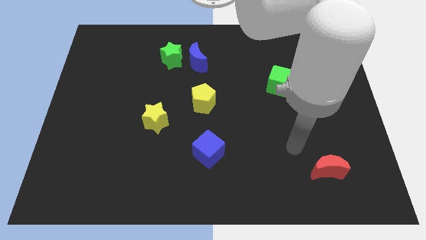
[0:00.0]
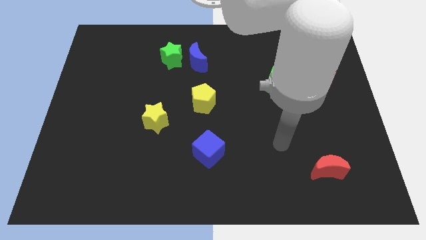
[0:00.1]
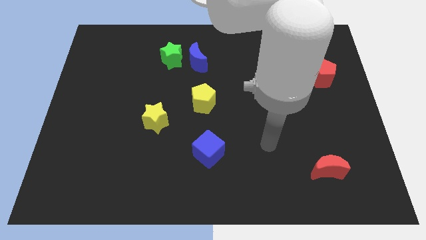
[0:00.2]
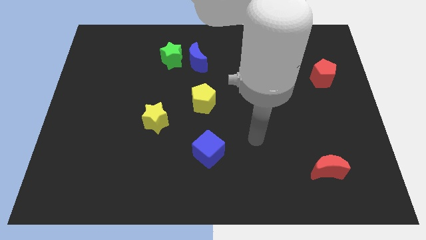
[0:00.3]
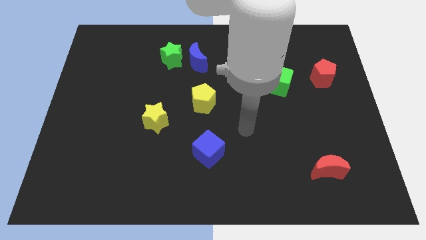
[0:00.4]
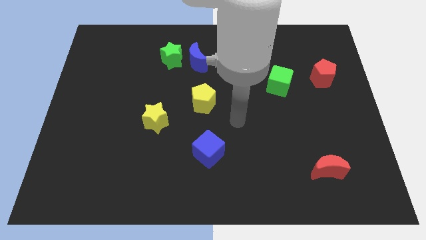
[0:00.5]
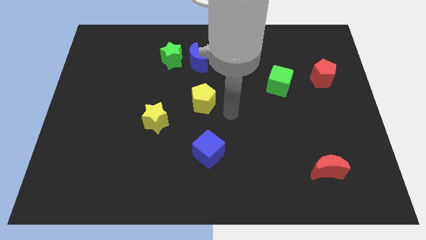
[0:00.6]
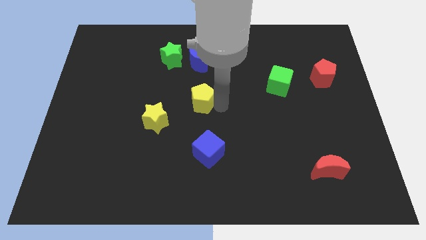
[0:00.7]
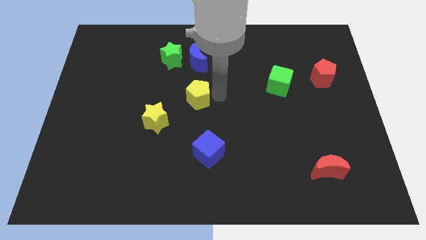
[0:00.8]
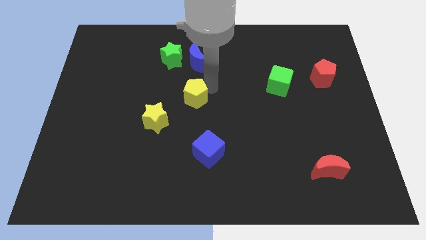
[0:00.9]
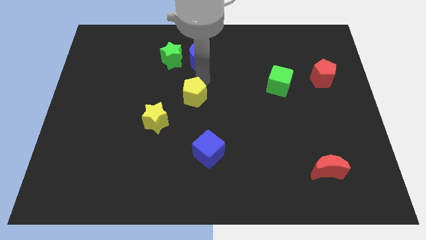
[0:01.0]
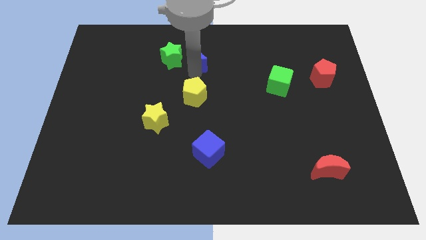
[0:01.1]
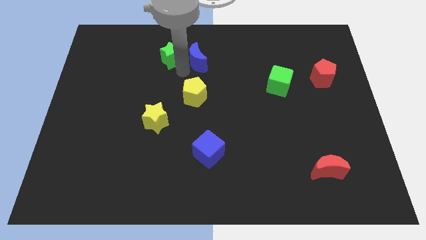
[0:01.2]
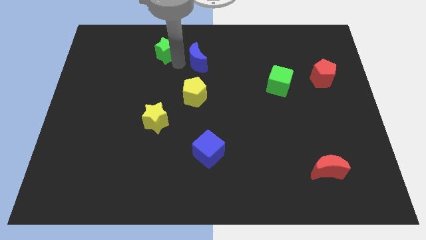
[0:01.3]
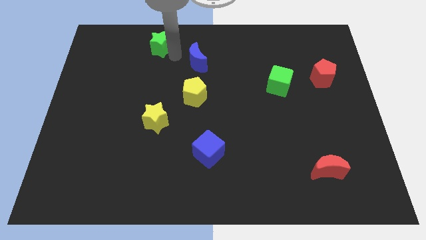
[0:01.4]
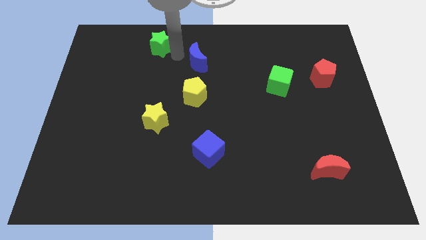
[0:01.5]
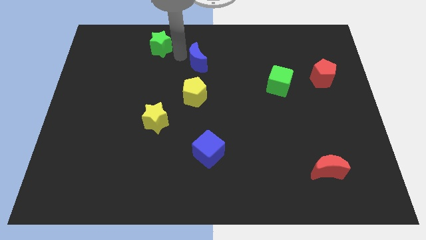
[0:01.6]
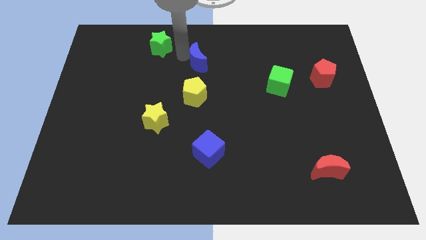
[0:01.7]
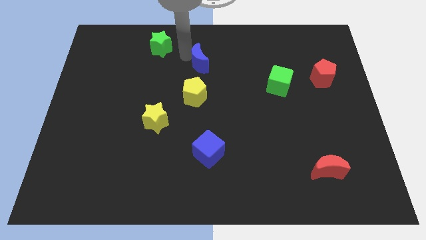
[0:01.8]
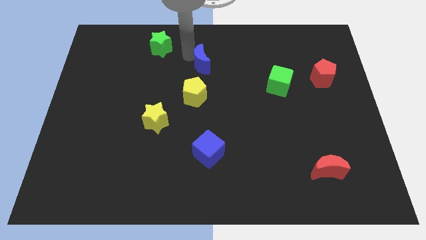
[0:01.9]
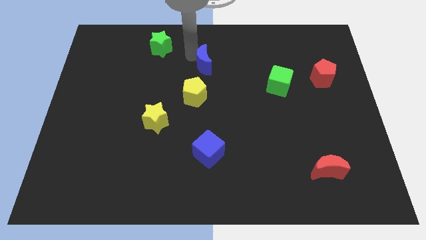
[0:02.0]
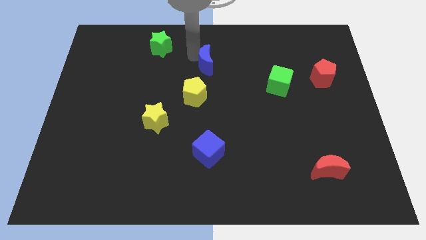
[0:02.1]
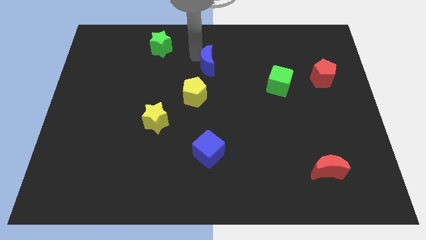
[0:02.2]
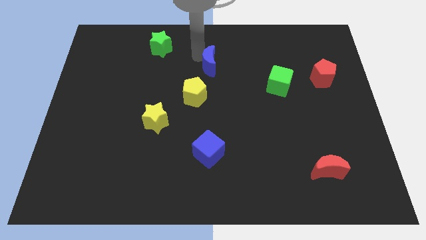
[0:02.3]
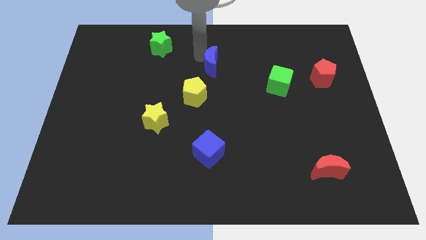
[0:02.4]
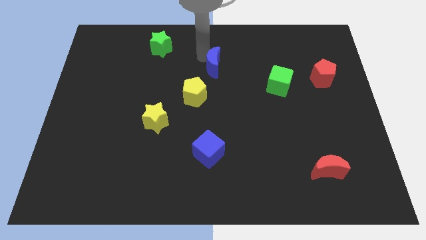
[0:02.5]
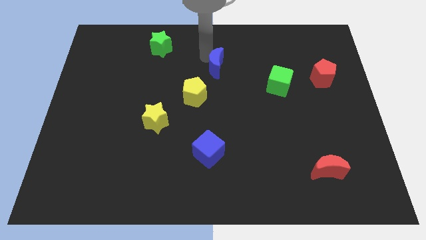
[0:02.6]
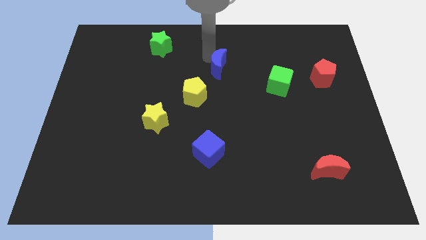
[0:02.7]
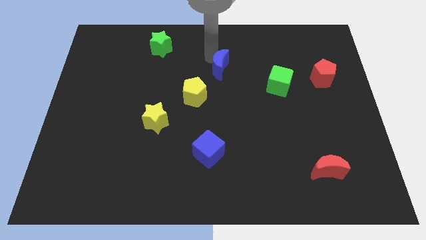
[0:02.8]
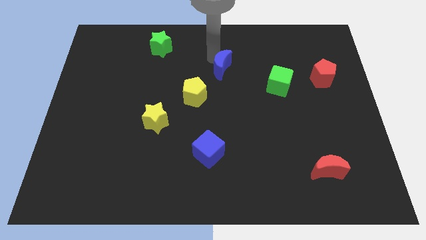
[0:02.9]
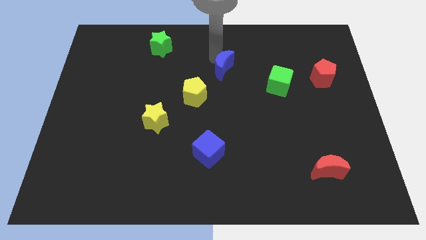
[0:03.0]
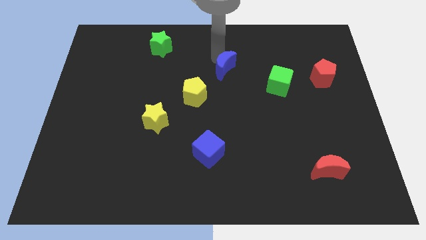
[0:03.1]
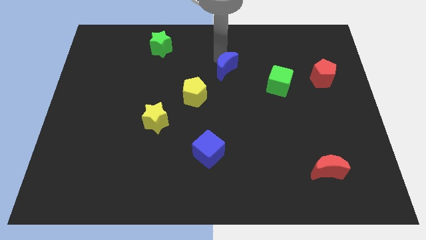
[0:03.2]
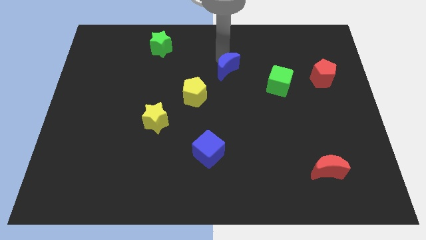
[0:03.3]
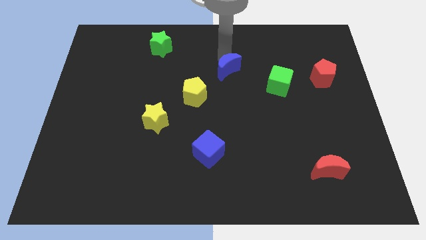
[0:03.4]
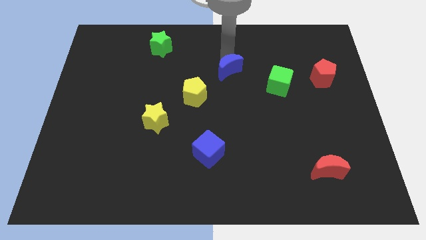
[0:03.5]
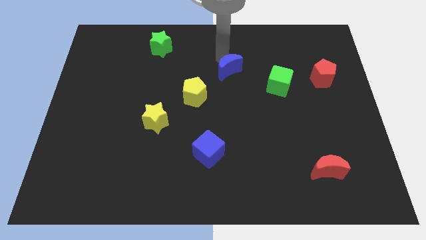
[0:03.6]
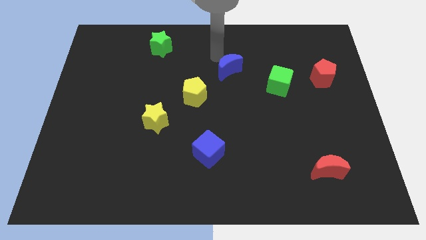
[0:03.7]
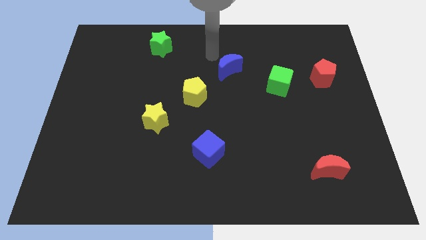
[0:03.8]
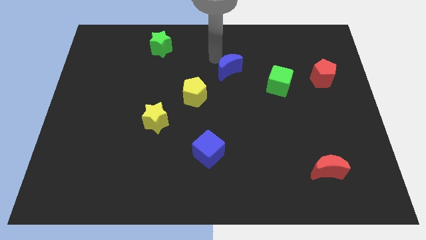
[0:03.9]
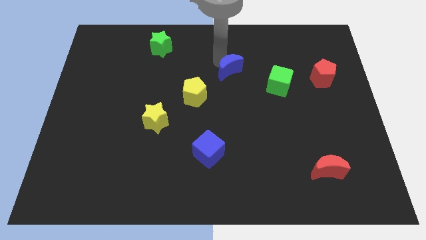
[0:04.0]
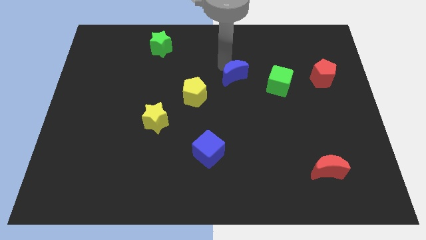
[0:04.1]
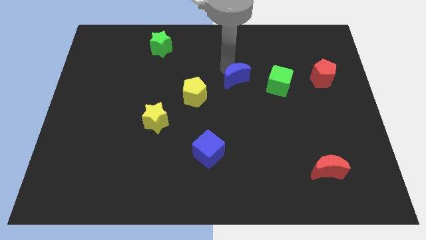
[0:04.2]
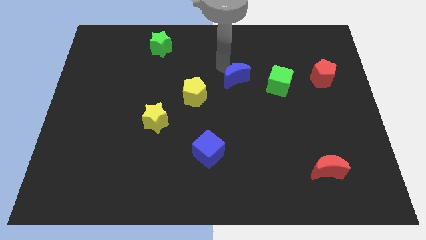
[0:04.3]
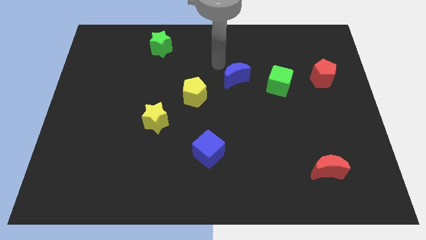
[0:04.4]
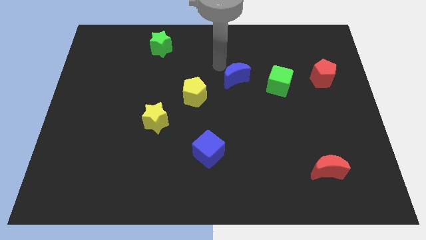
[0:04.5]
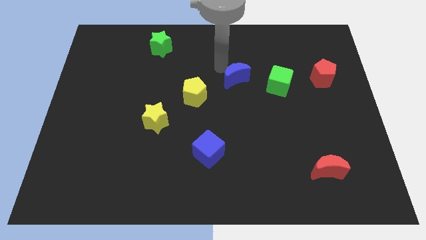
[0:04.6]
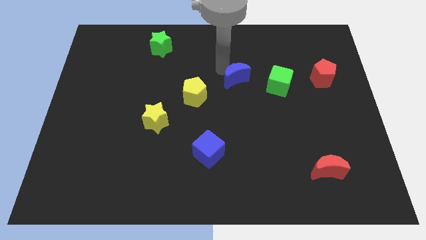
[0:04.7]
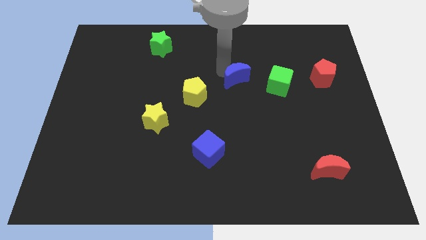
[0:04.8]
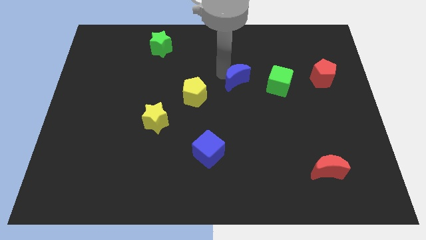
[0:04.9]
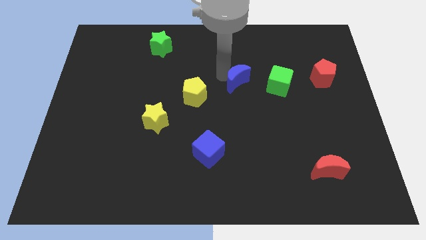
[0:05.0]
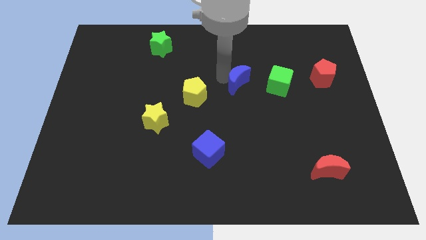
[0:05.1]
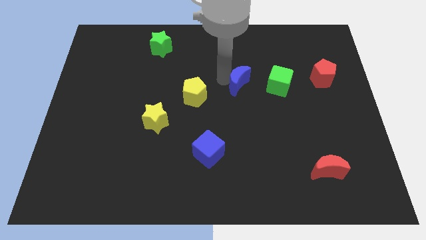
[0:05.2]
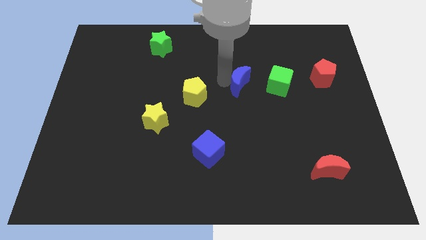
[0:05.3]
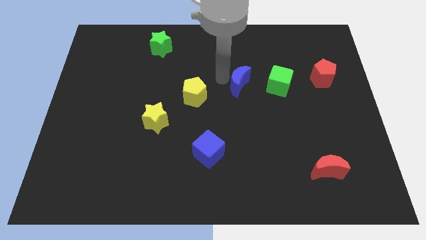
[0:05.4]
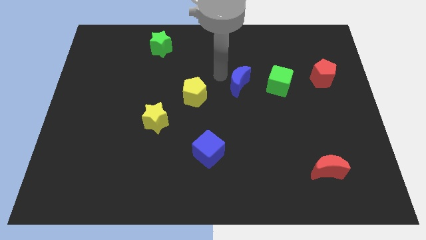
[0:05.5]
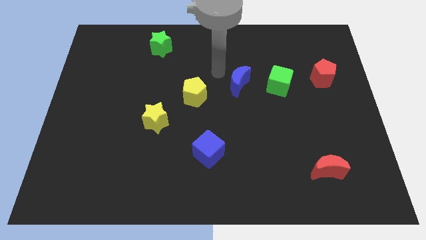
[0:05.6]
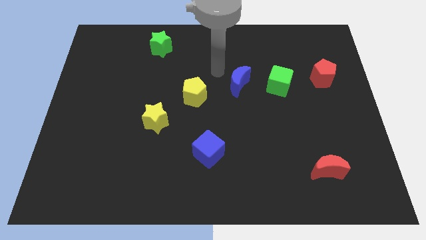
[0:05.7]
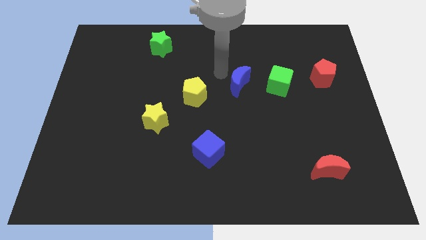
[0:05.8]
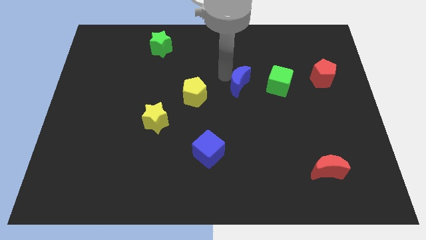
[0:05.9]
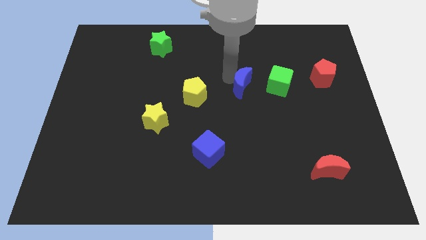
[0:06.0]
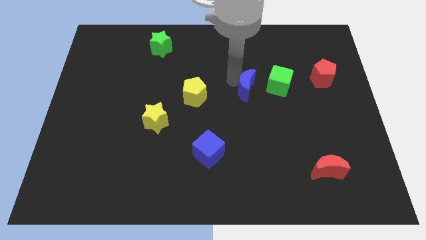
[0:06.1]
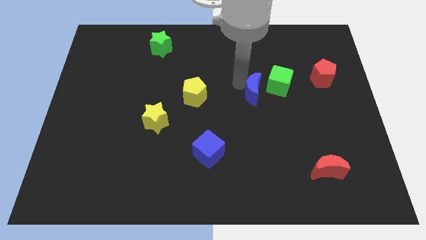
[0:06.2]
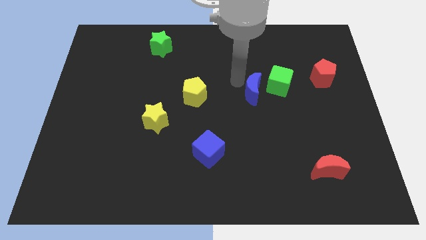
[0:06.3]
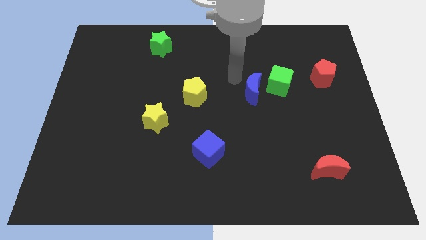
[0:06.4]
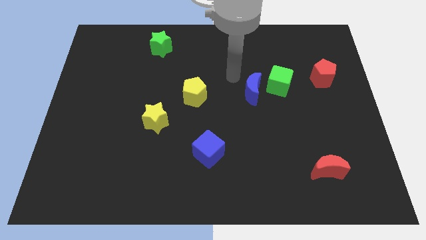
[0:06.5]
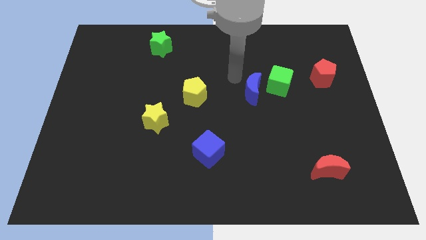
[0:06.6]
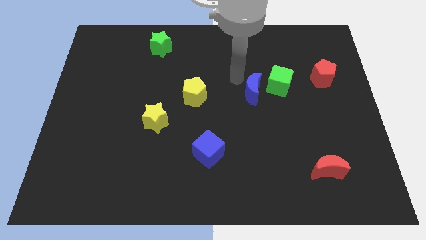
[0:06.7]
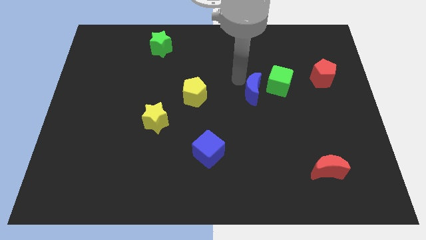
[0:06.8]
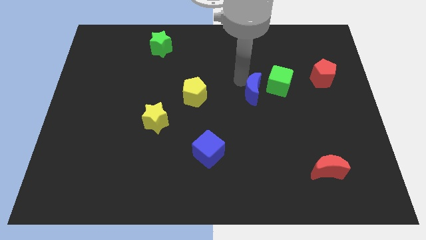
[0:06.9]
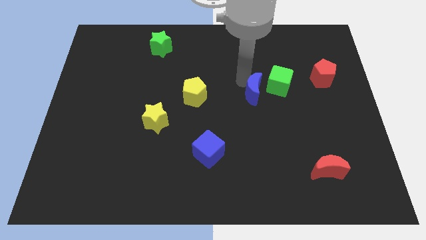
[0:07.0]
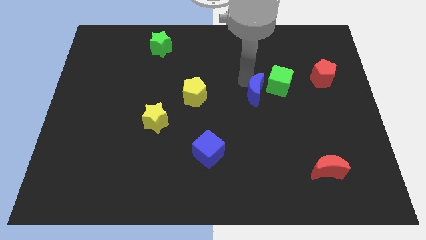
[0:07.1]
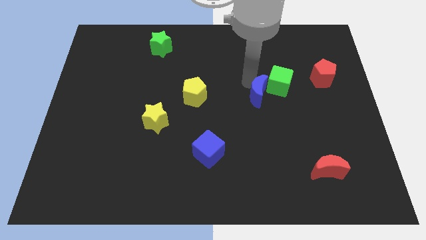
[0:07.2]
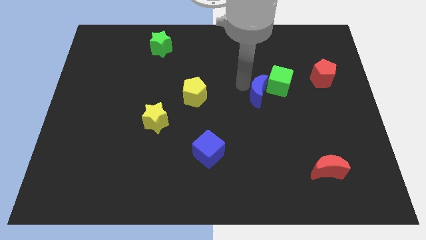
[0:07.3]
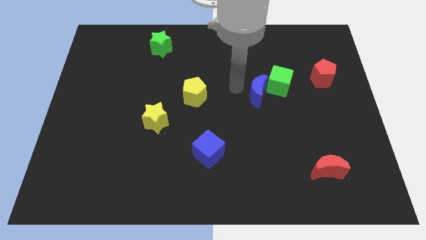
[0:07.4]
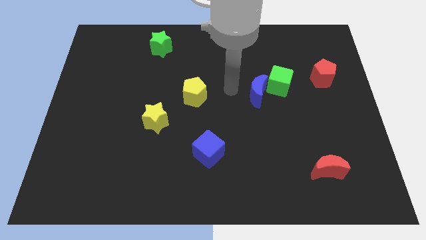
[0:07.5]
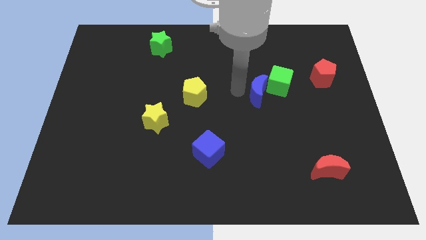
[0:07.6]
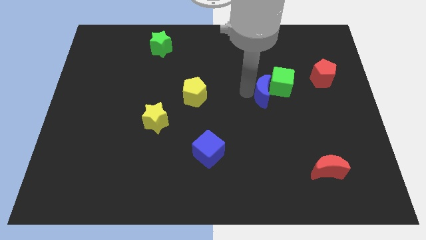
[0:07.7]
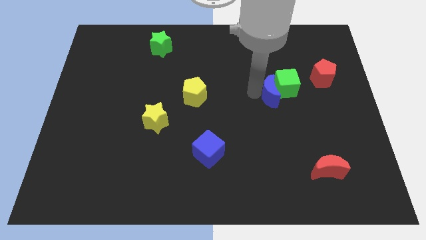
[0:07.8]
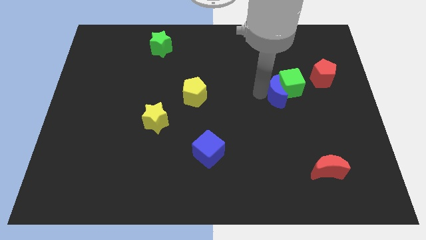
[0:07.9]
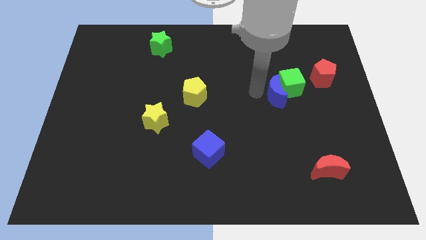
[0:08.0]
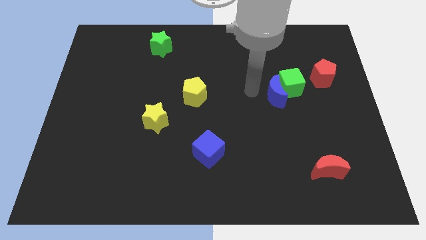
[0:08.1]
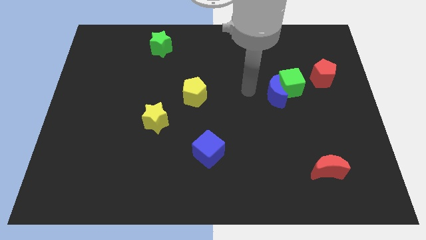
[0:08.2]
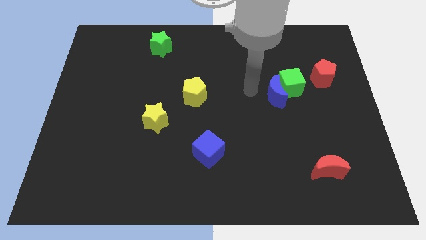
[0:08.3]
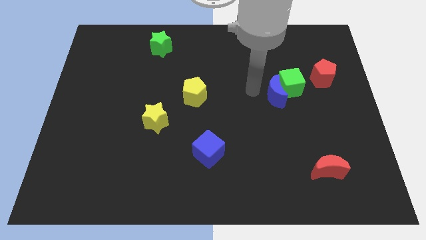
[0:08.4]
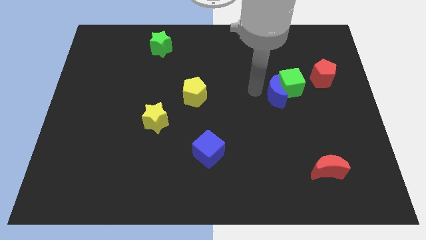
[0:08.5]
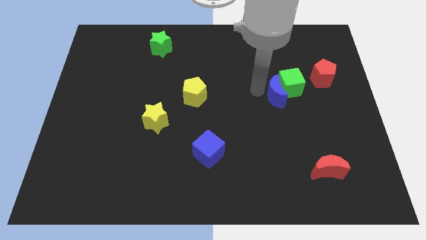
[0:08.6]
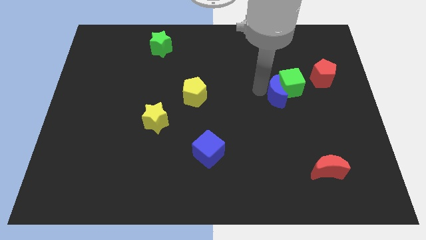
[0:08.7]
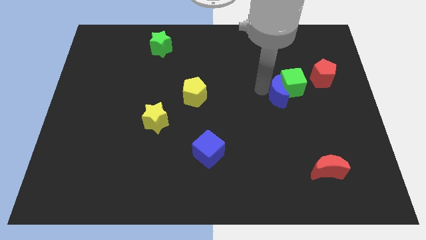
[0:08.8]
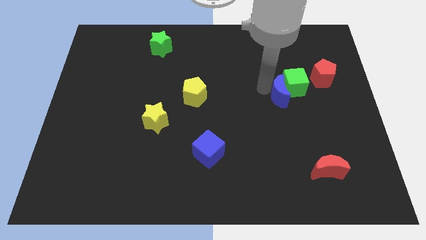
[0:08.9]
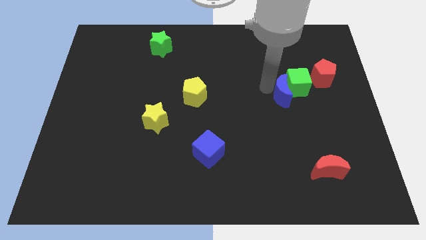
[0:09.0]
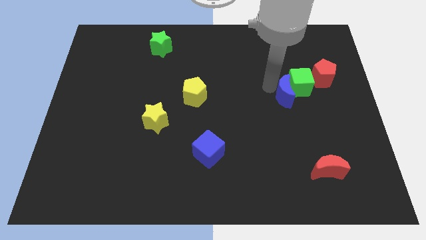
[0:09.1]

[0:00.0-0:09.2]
push the blue moon to the bottom left side of the red pentagon
